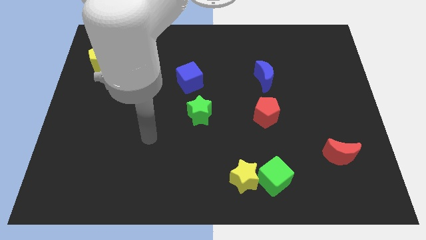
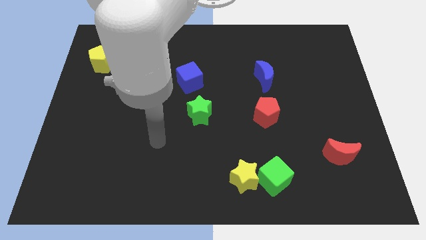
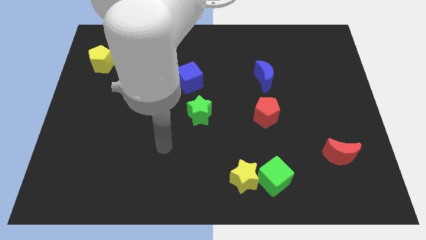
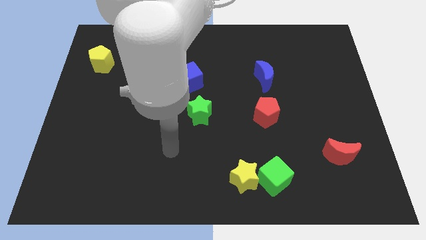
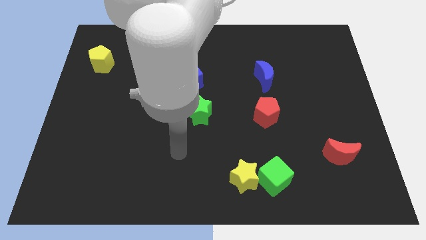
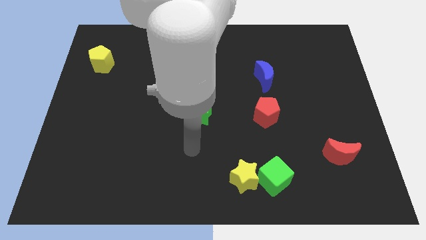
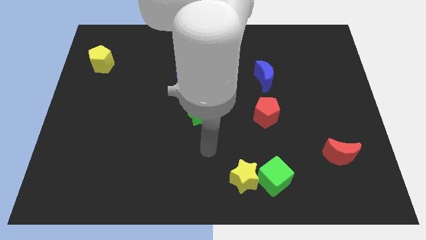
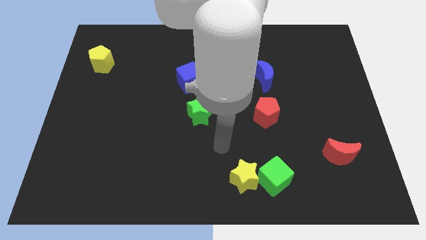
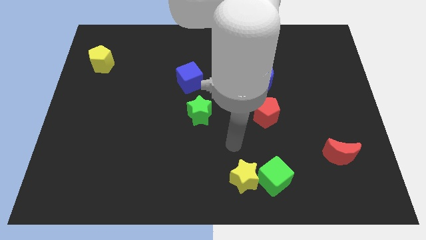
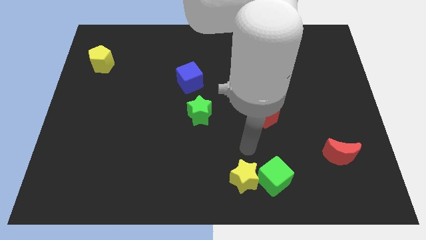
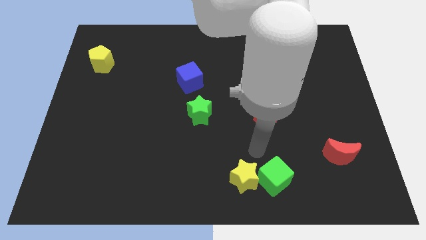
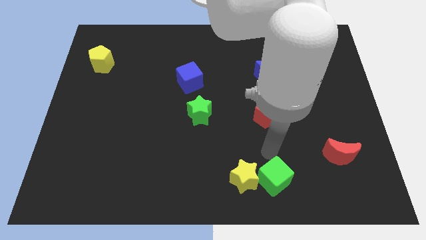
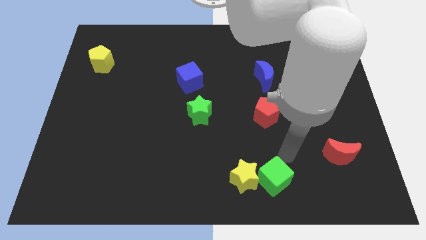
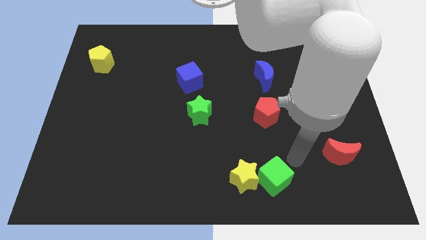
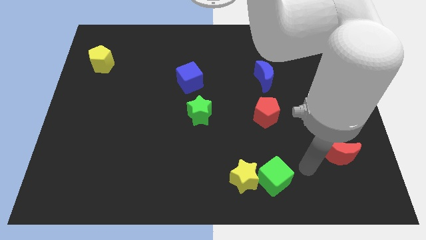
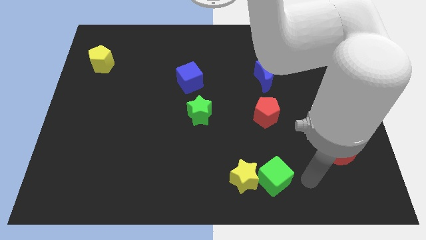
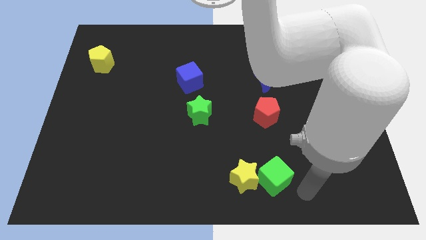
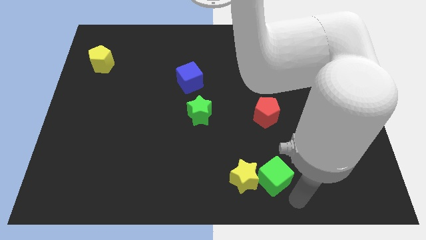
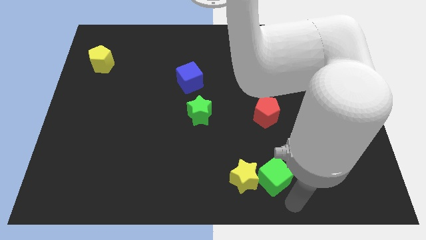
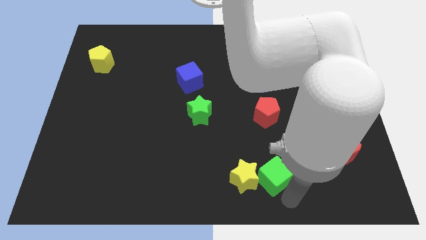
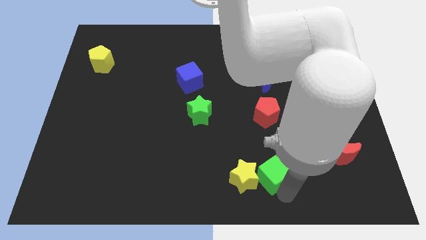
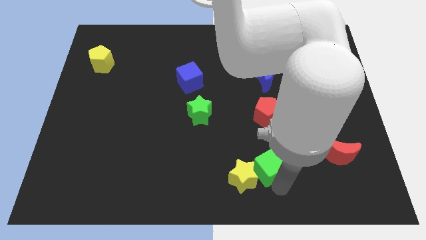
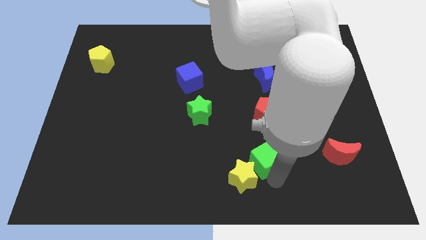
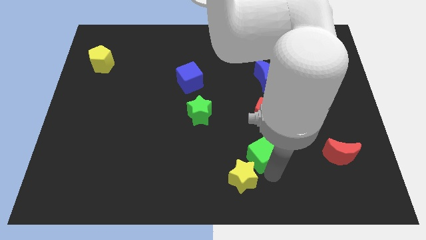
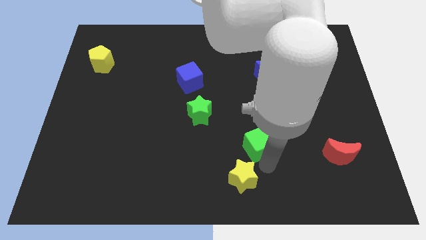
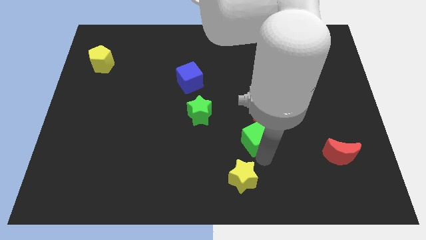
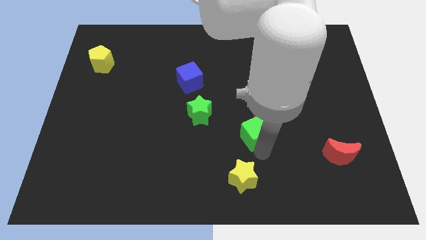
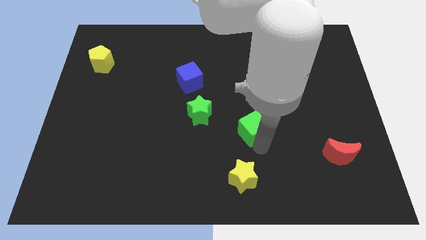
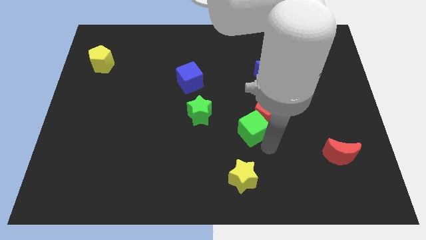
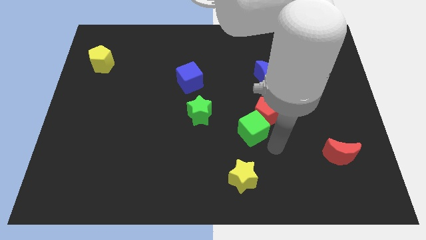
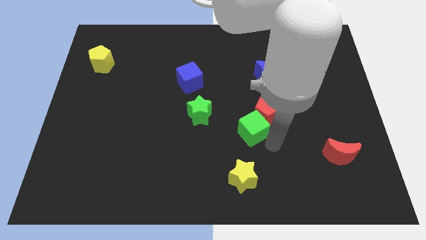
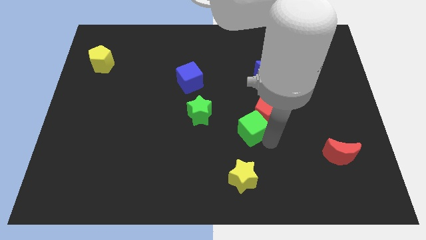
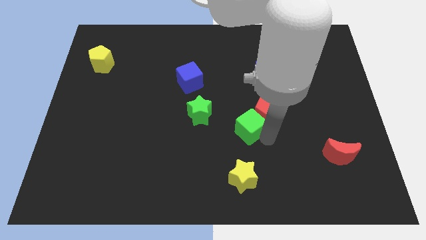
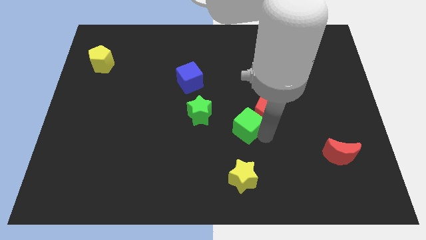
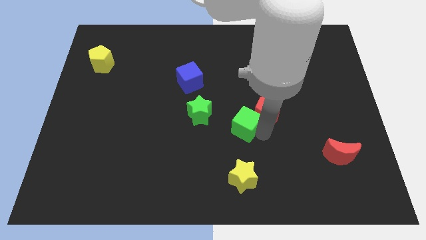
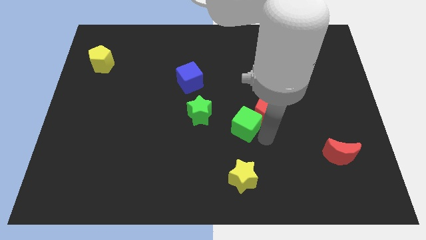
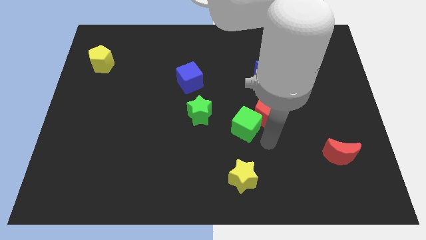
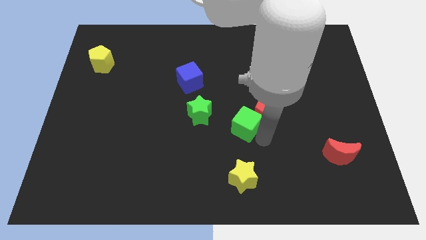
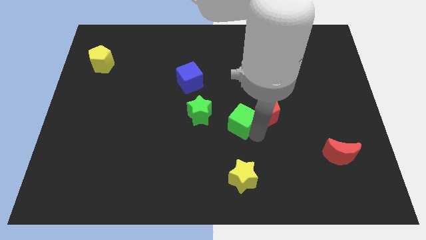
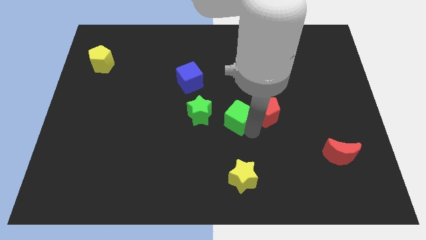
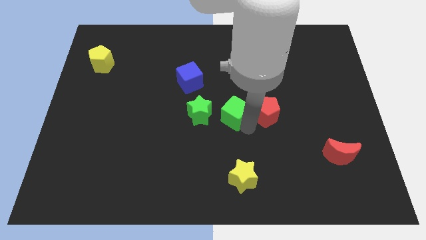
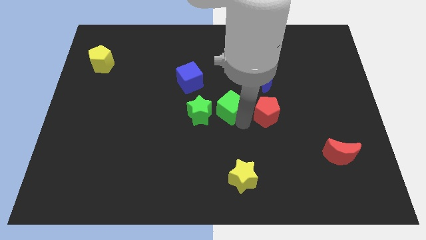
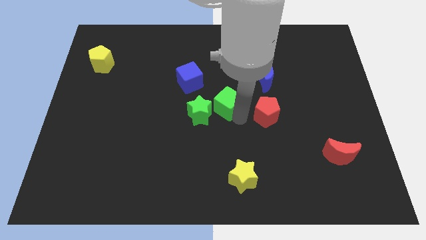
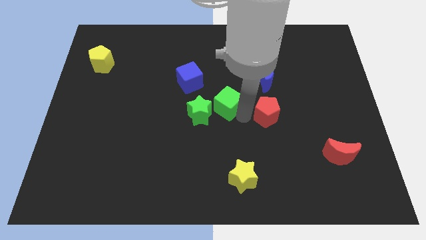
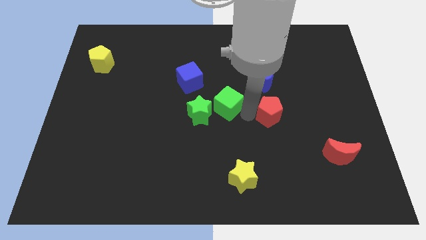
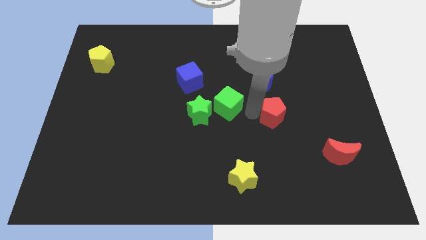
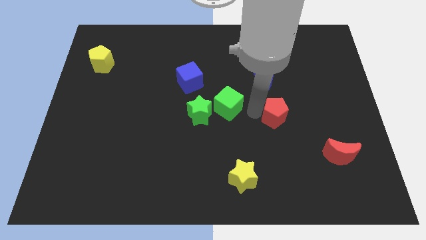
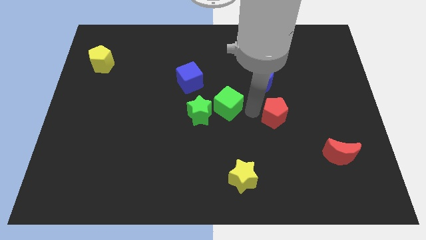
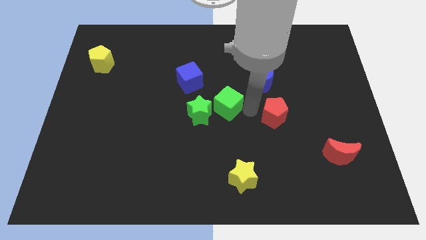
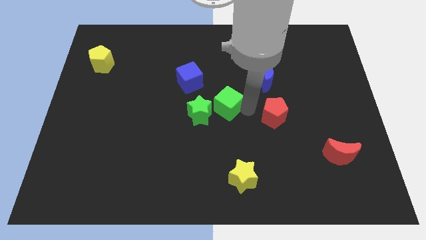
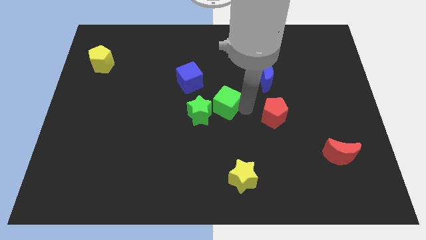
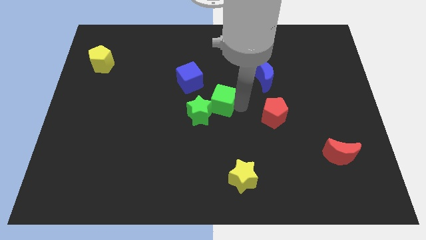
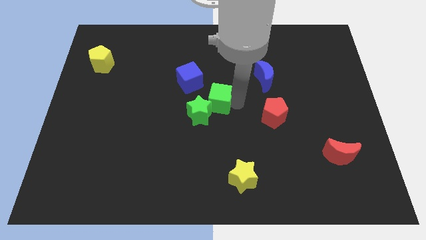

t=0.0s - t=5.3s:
push the green cube upwards and then left

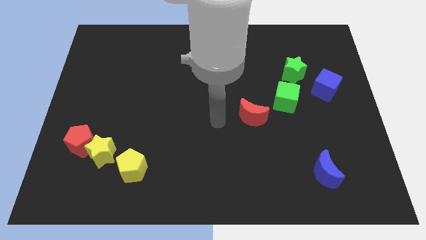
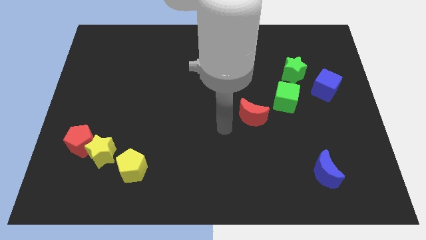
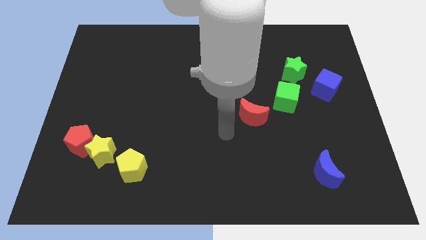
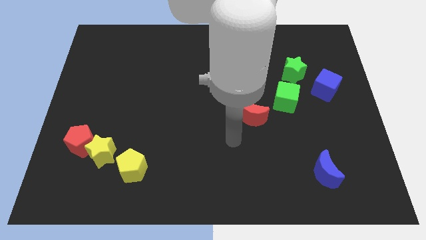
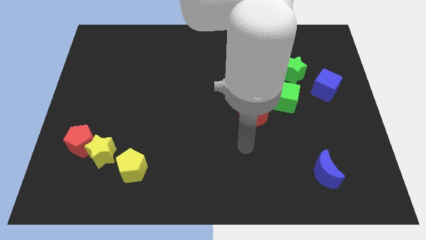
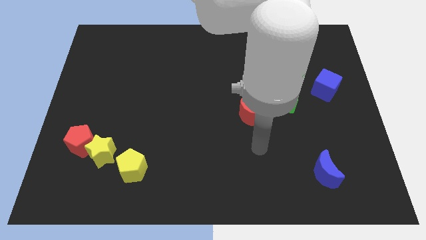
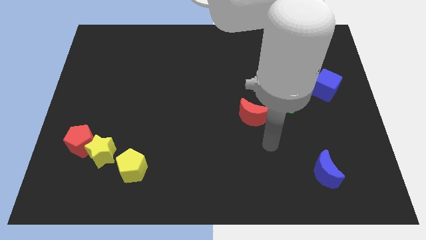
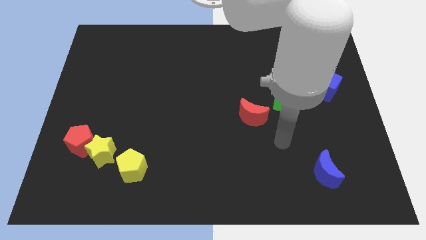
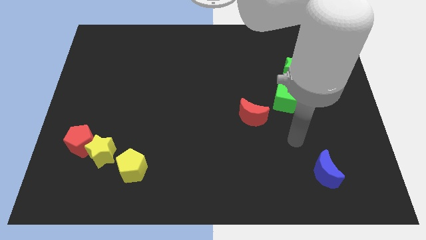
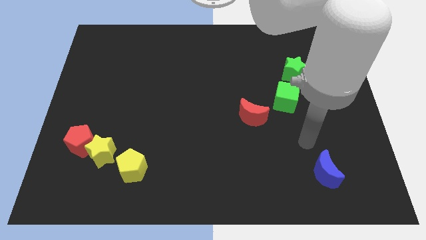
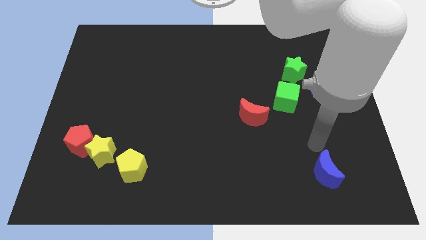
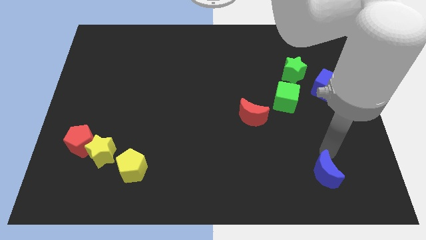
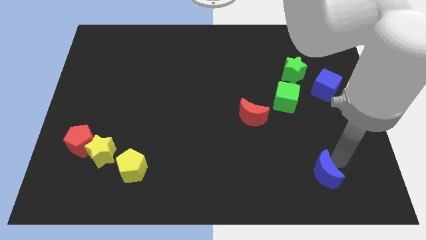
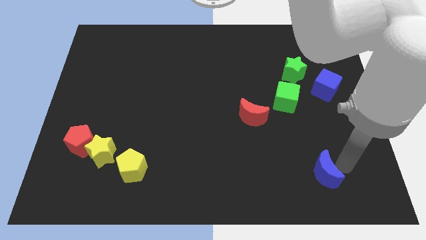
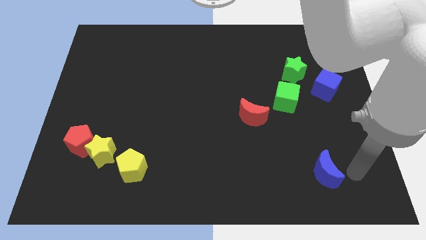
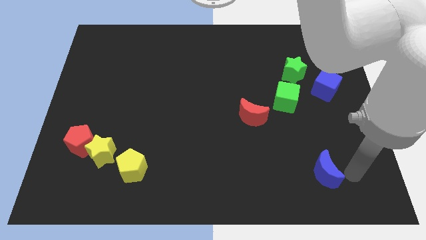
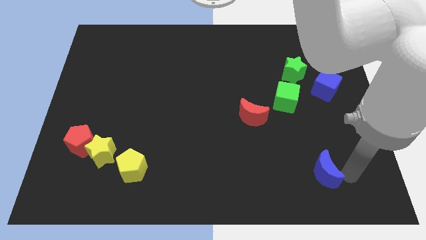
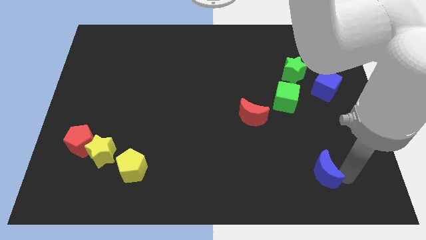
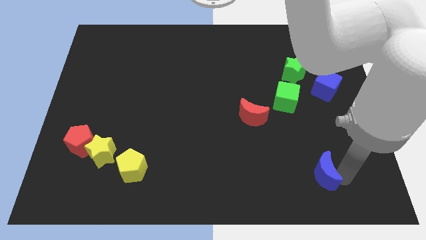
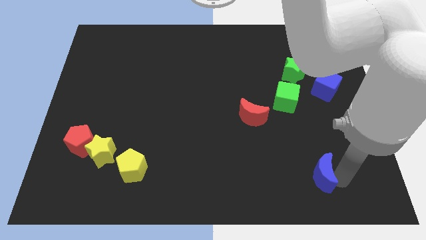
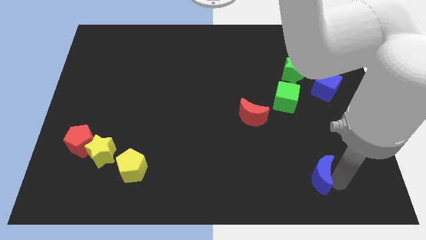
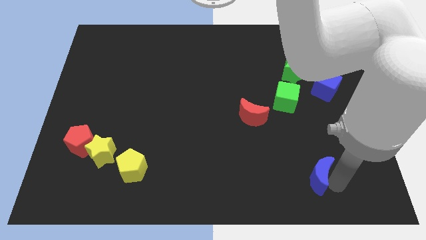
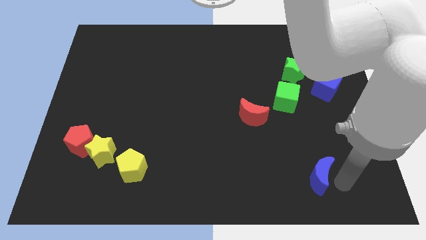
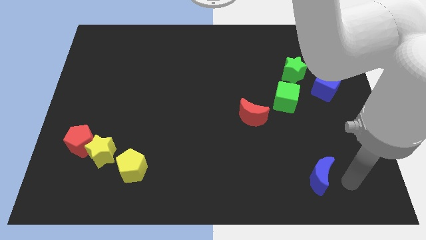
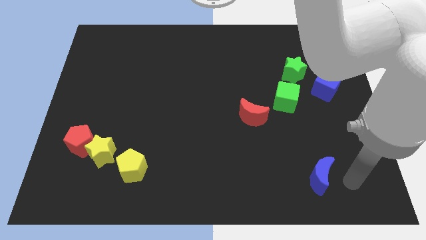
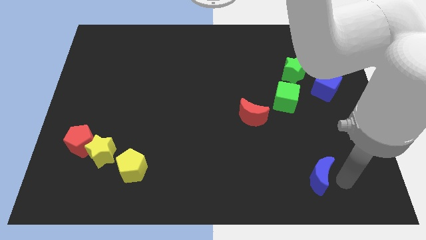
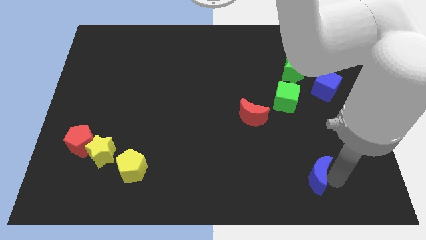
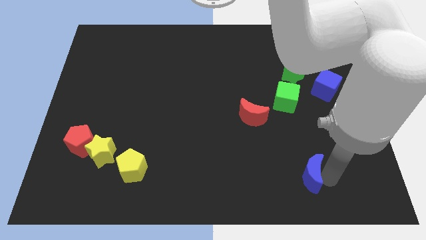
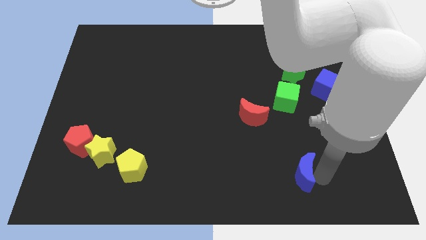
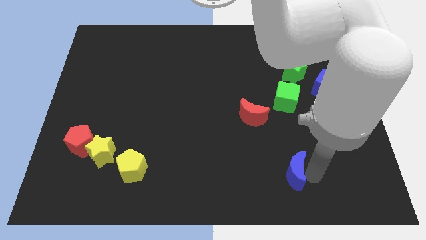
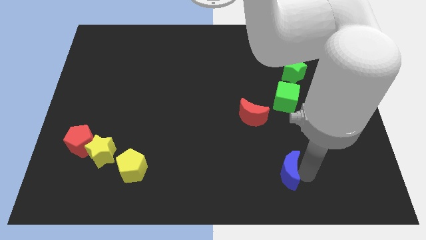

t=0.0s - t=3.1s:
slightly move the blue moon to the left
